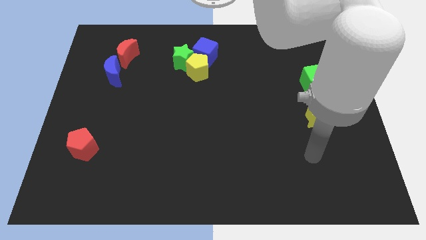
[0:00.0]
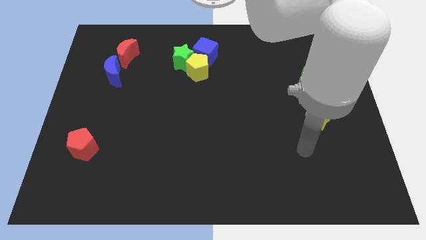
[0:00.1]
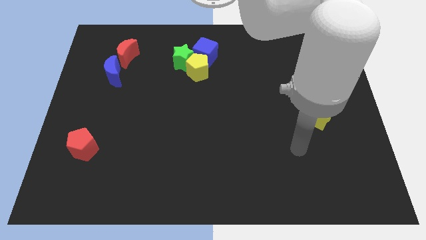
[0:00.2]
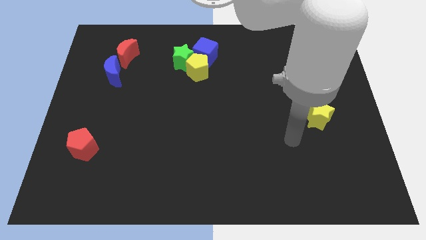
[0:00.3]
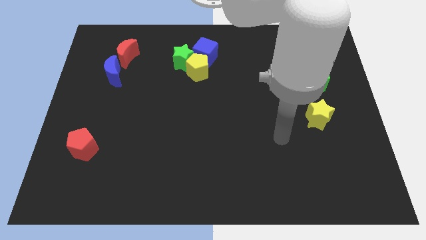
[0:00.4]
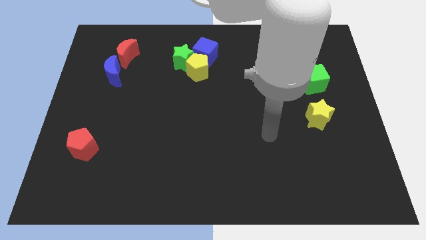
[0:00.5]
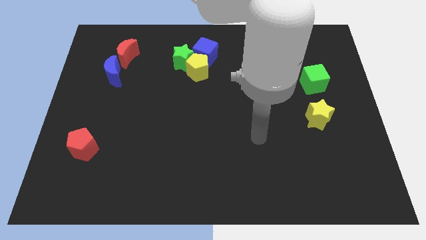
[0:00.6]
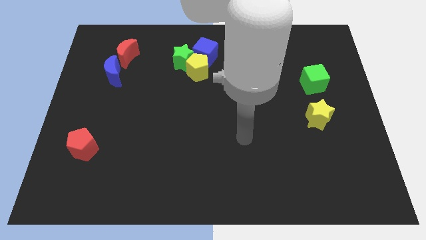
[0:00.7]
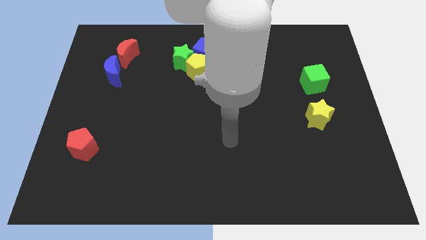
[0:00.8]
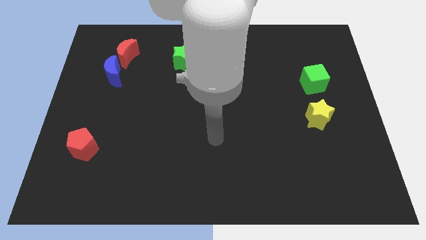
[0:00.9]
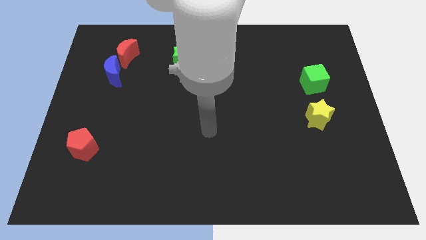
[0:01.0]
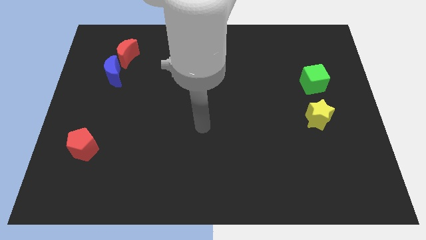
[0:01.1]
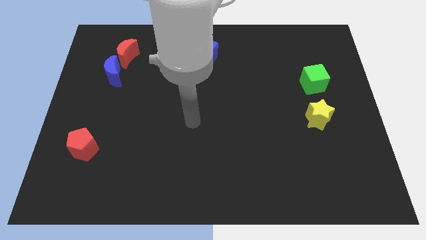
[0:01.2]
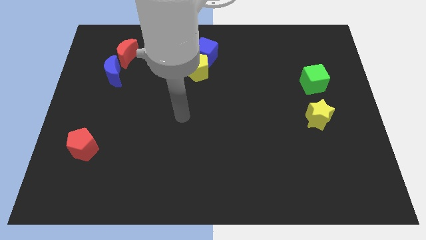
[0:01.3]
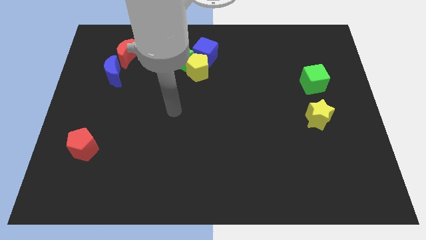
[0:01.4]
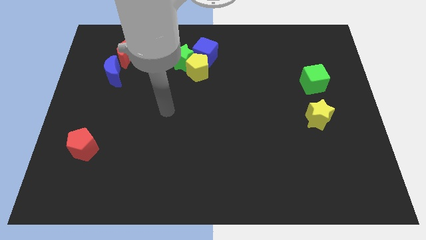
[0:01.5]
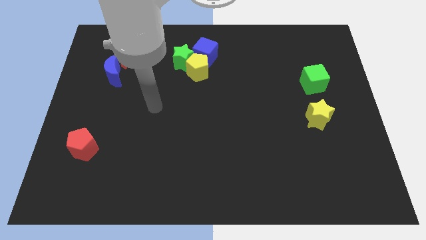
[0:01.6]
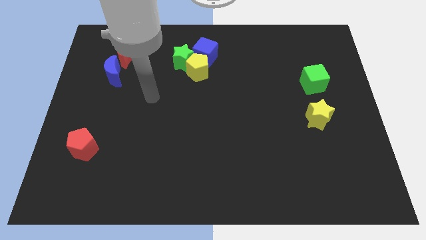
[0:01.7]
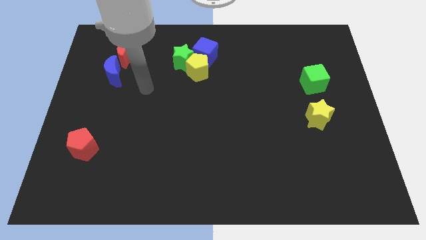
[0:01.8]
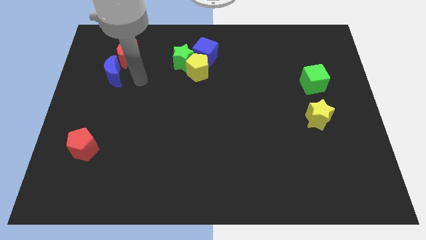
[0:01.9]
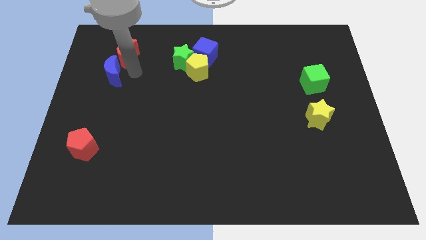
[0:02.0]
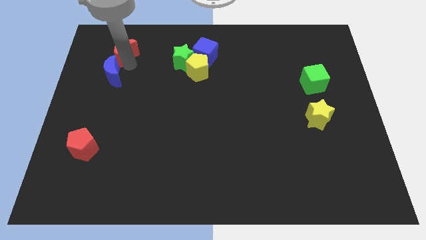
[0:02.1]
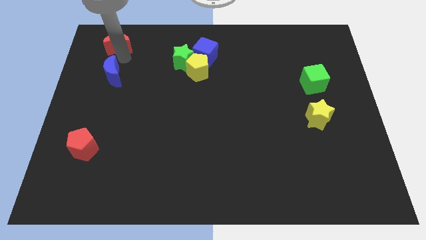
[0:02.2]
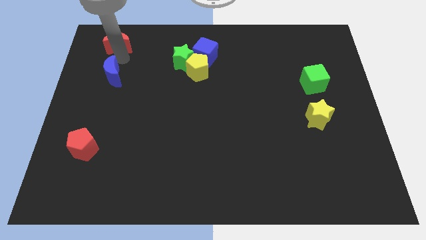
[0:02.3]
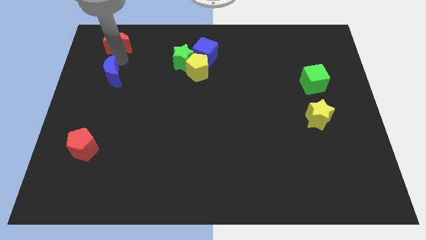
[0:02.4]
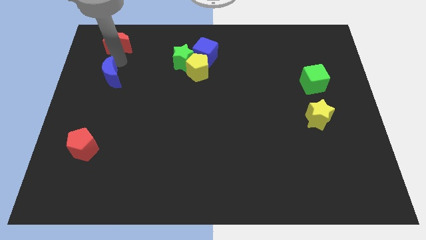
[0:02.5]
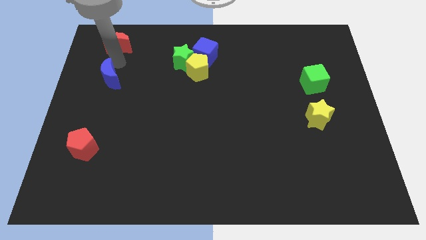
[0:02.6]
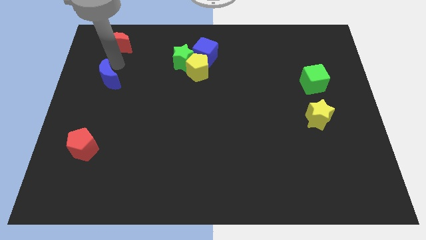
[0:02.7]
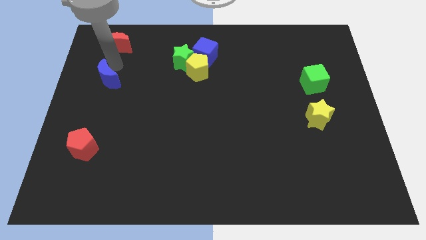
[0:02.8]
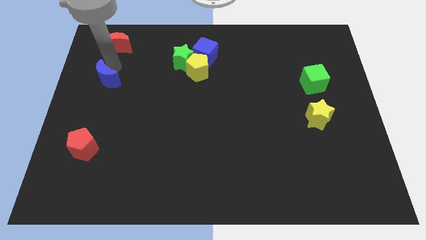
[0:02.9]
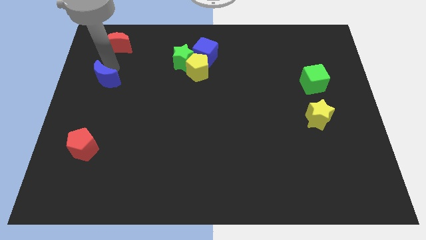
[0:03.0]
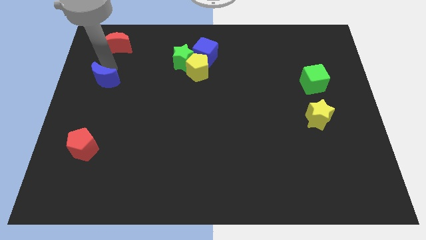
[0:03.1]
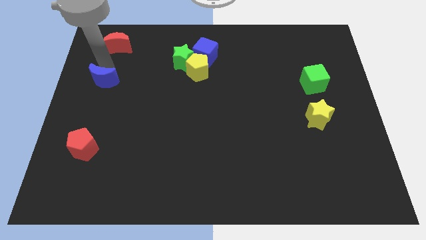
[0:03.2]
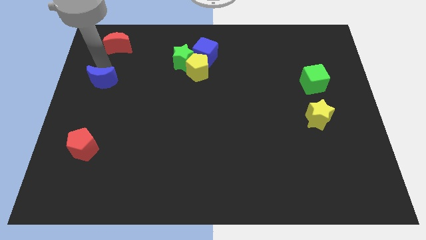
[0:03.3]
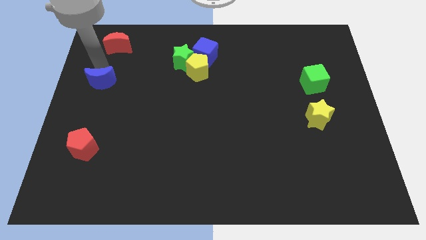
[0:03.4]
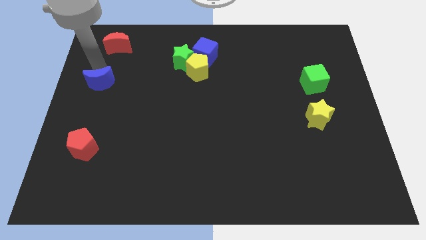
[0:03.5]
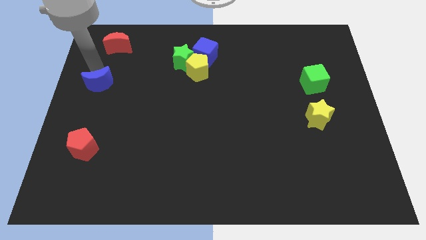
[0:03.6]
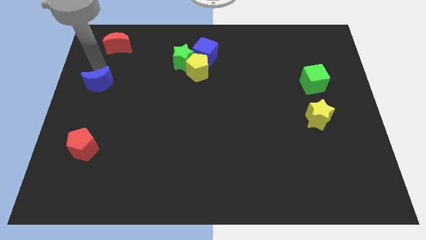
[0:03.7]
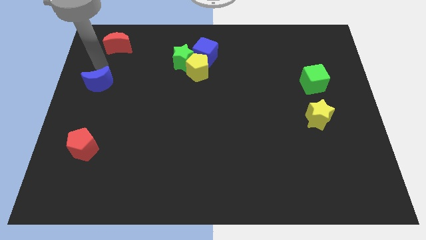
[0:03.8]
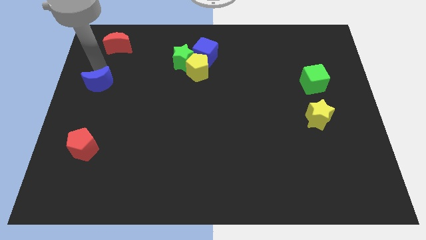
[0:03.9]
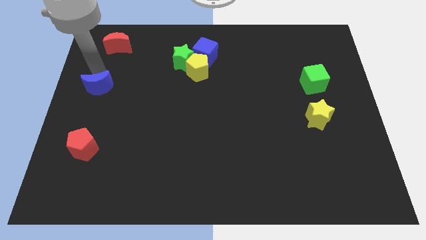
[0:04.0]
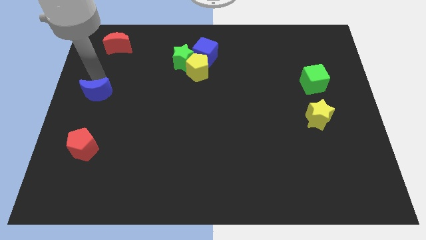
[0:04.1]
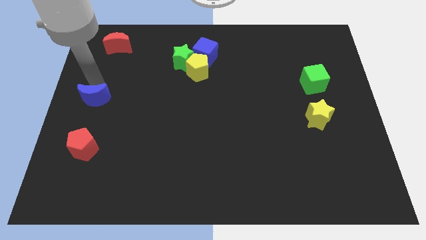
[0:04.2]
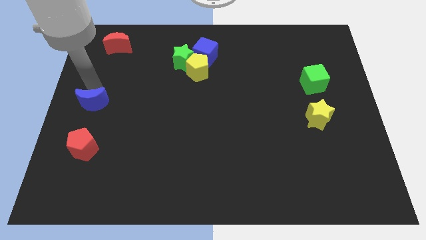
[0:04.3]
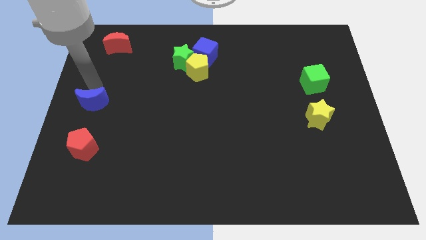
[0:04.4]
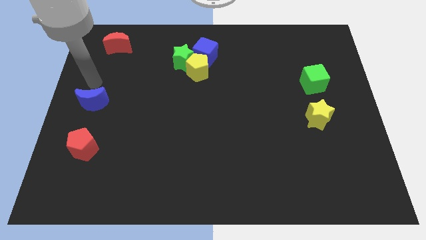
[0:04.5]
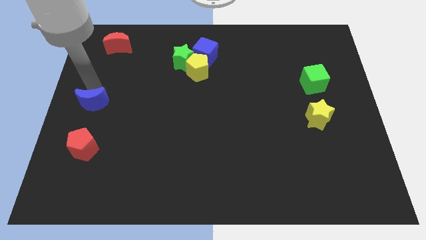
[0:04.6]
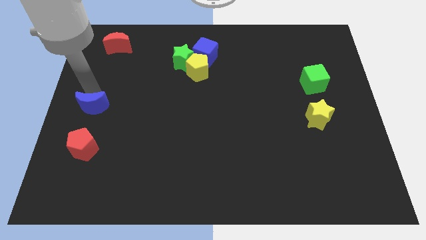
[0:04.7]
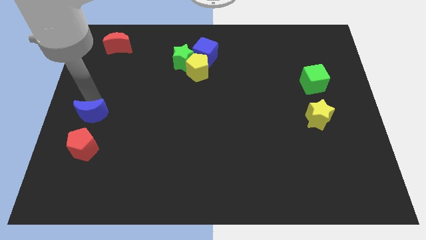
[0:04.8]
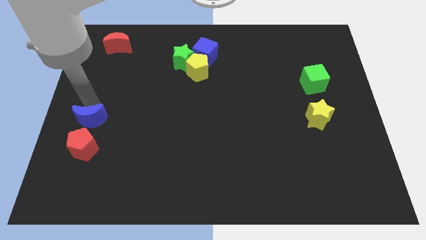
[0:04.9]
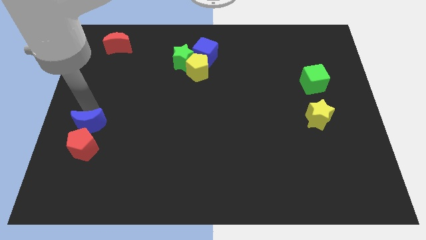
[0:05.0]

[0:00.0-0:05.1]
push the blue moon close to the red pentagon

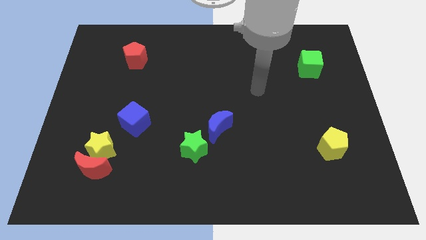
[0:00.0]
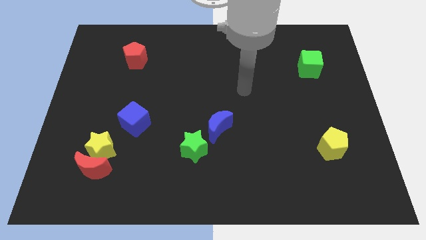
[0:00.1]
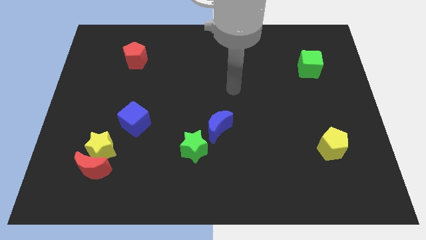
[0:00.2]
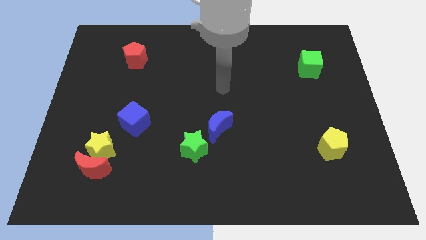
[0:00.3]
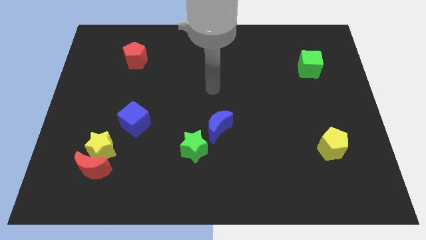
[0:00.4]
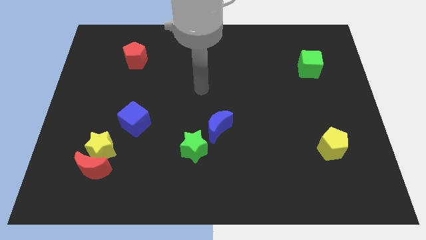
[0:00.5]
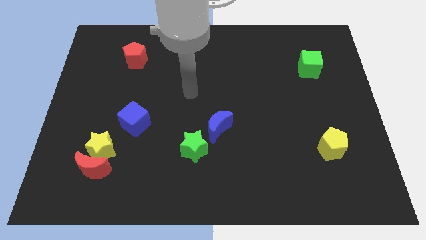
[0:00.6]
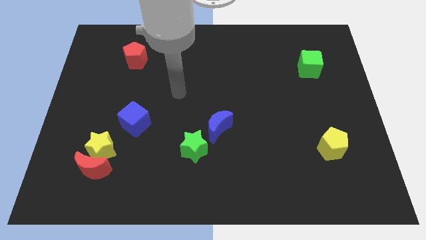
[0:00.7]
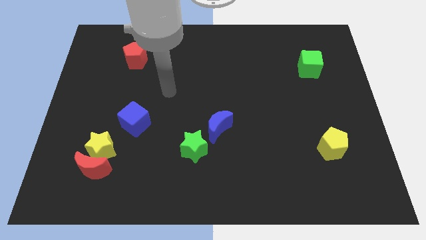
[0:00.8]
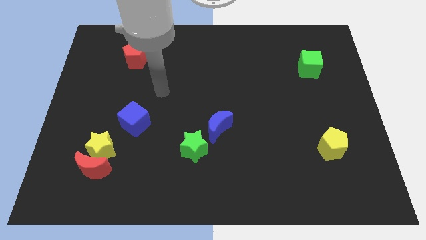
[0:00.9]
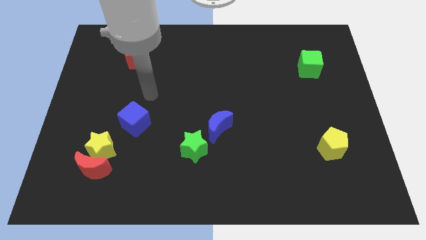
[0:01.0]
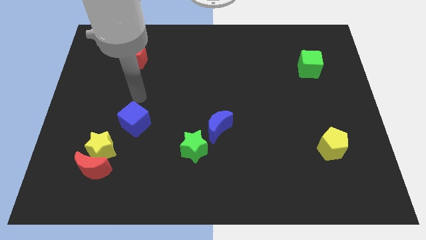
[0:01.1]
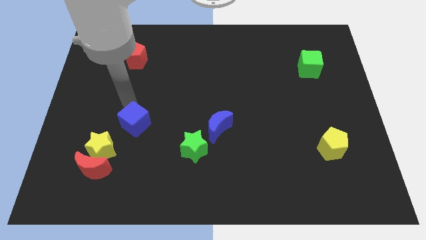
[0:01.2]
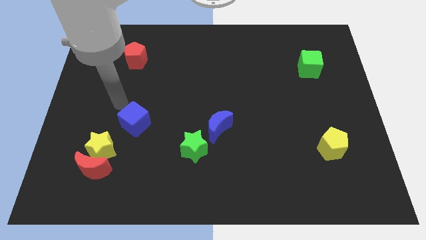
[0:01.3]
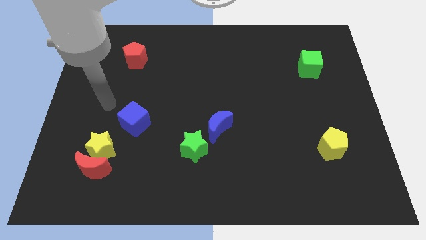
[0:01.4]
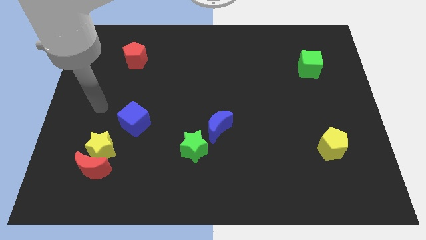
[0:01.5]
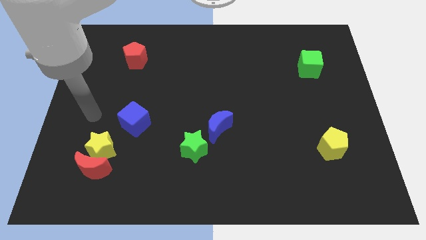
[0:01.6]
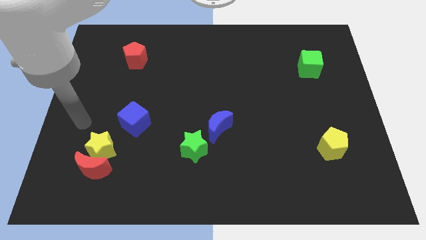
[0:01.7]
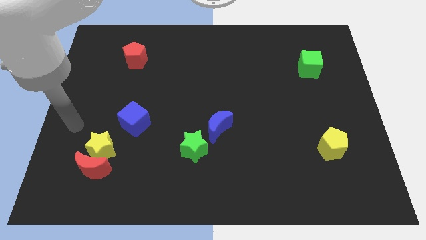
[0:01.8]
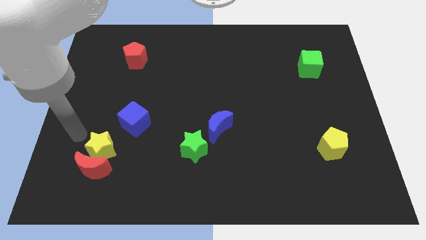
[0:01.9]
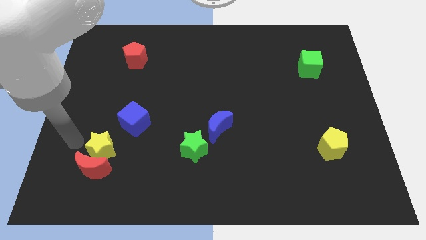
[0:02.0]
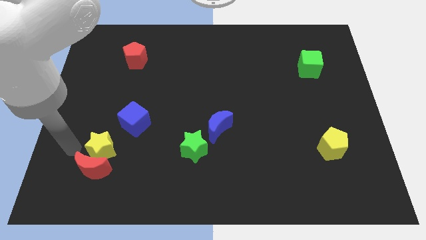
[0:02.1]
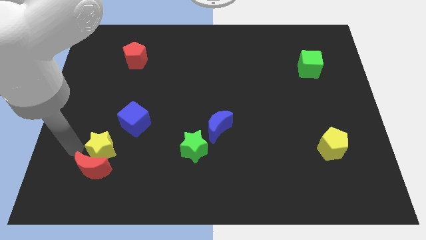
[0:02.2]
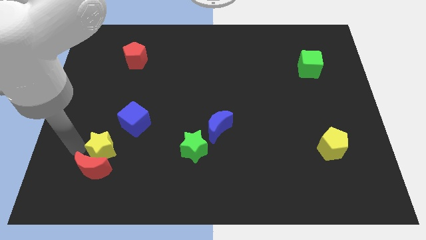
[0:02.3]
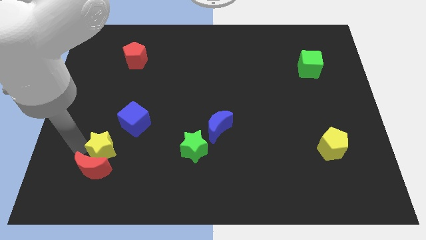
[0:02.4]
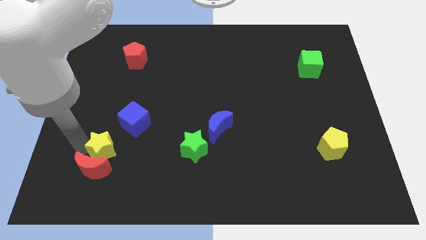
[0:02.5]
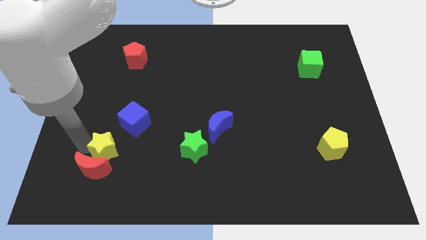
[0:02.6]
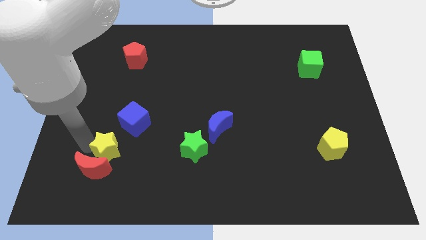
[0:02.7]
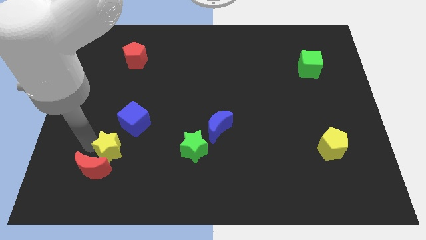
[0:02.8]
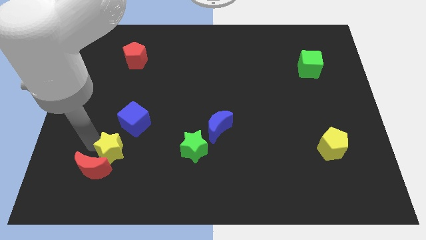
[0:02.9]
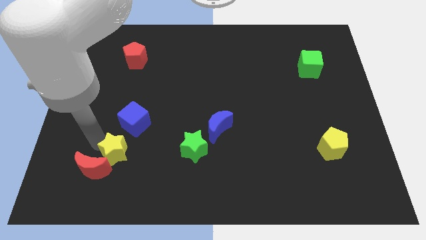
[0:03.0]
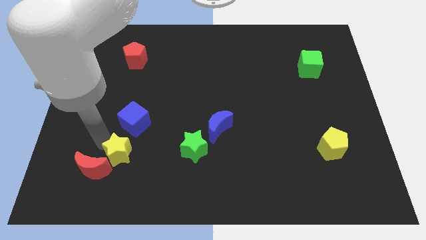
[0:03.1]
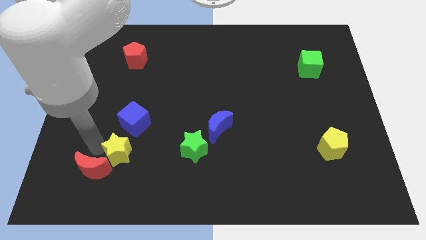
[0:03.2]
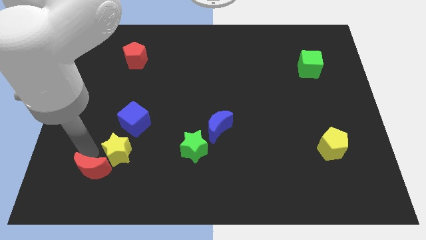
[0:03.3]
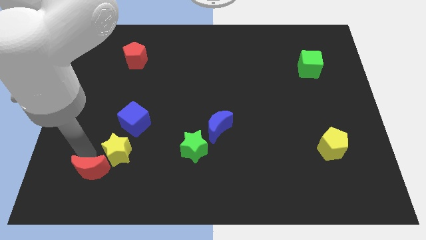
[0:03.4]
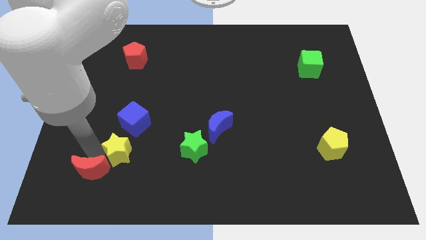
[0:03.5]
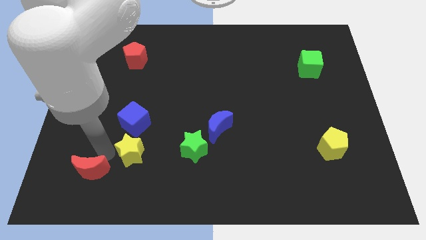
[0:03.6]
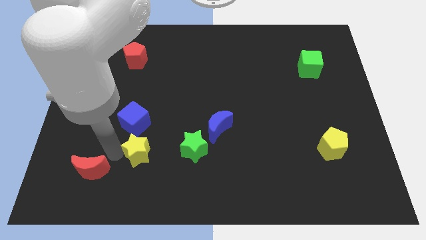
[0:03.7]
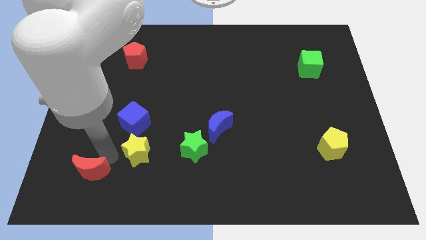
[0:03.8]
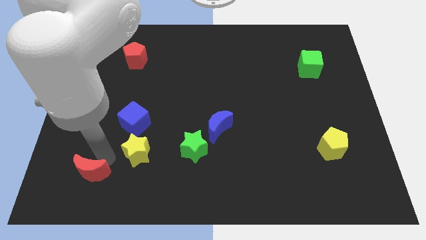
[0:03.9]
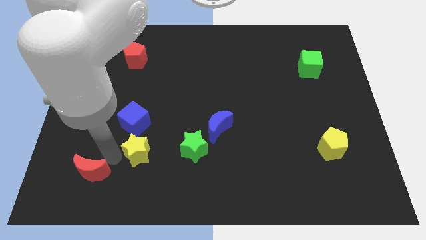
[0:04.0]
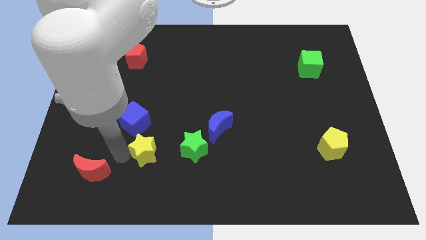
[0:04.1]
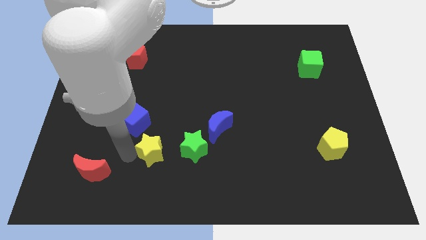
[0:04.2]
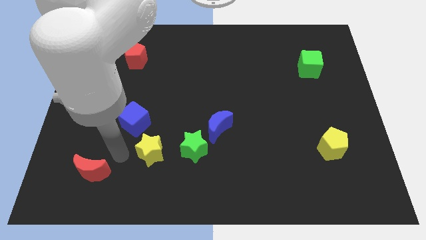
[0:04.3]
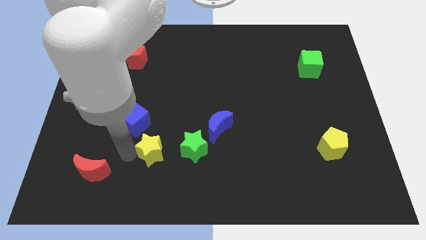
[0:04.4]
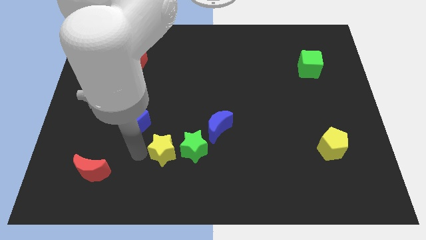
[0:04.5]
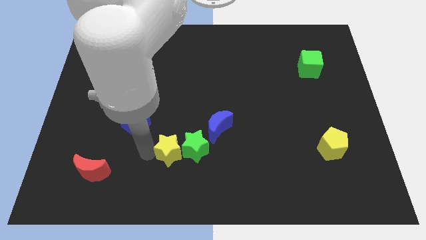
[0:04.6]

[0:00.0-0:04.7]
move the yellow star to the green star
